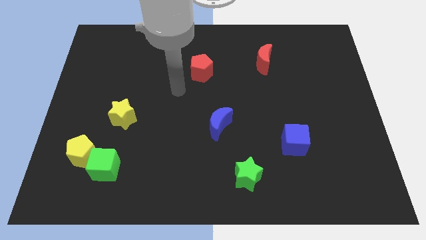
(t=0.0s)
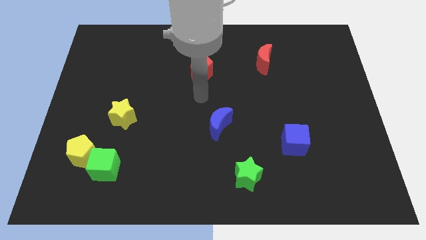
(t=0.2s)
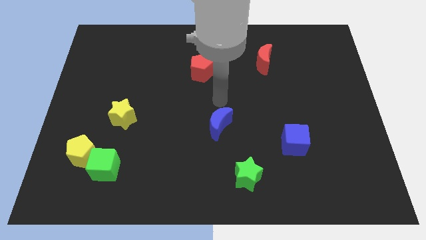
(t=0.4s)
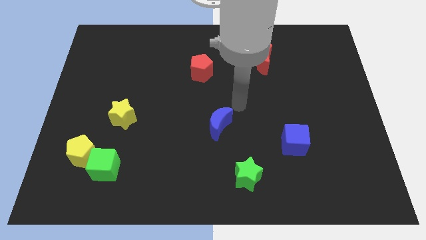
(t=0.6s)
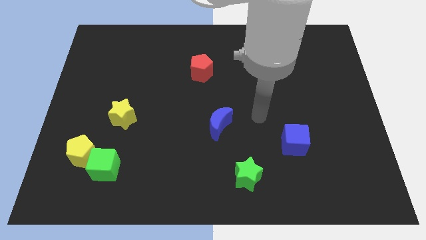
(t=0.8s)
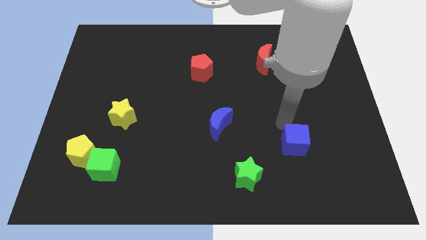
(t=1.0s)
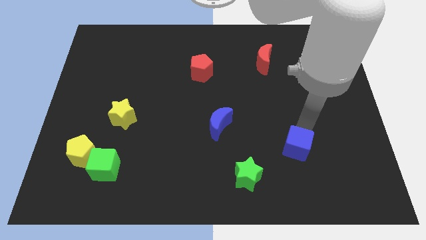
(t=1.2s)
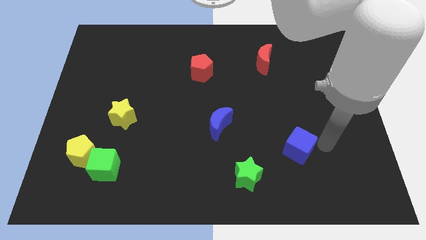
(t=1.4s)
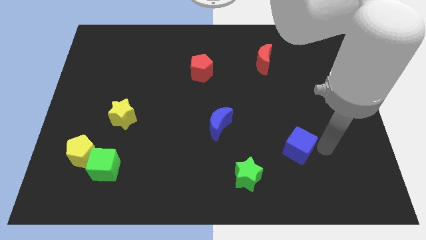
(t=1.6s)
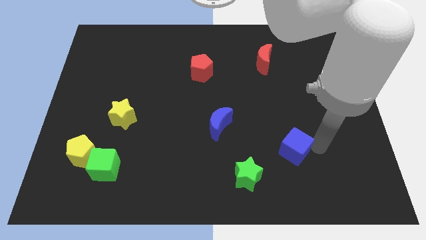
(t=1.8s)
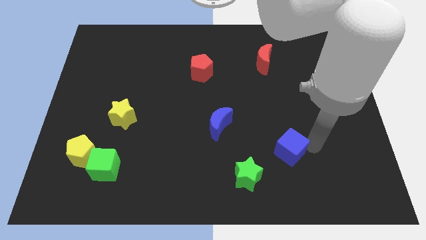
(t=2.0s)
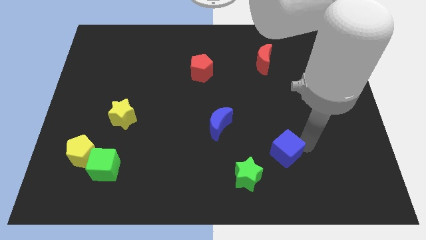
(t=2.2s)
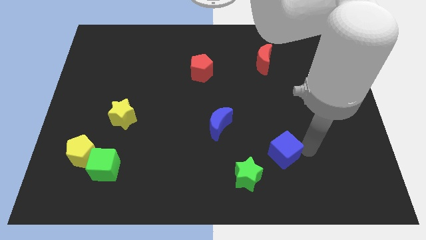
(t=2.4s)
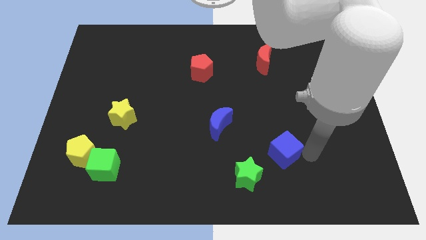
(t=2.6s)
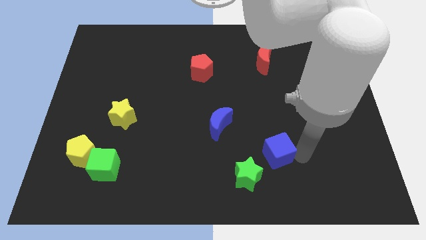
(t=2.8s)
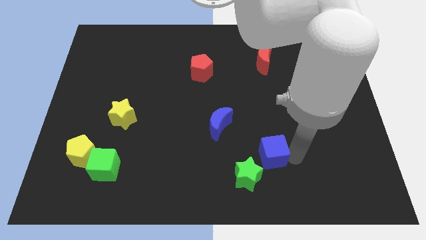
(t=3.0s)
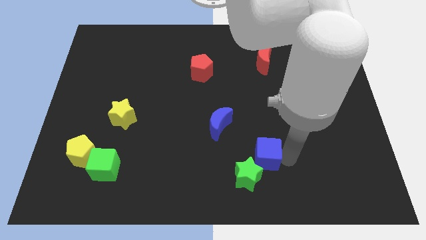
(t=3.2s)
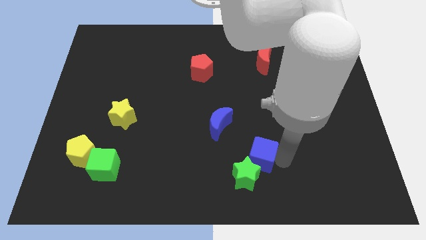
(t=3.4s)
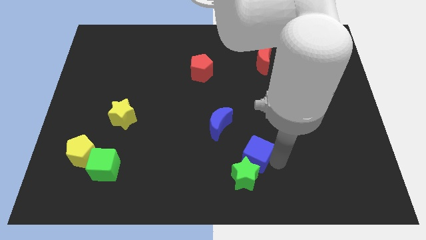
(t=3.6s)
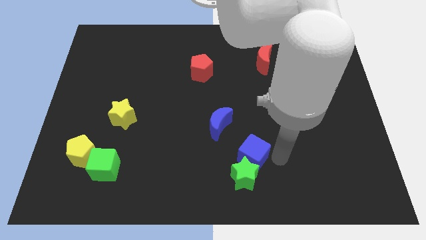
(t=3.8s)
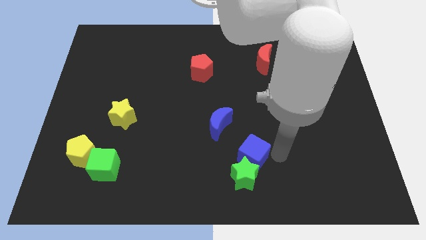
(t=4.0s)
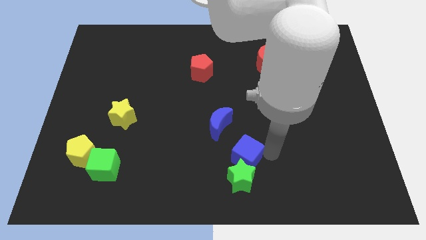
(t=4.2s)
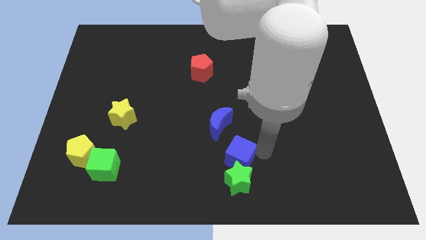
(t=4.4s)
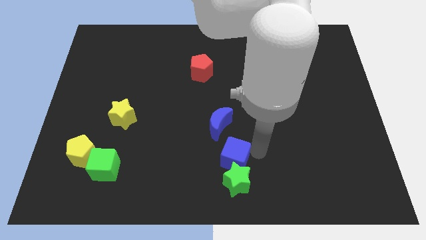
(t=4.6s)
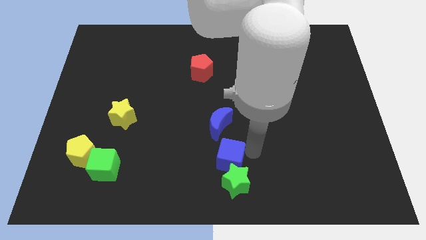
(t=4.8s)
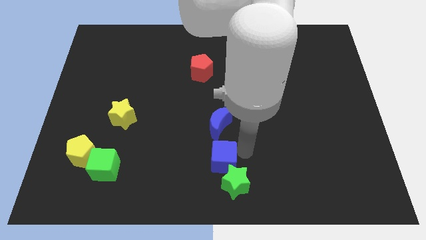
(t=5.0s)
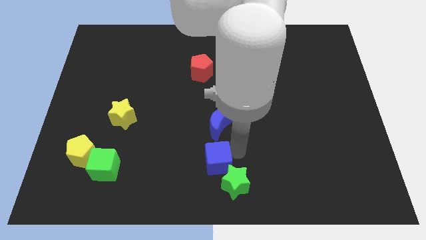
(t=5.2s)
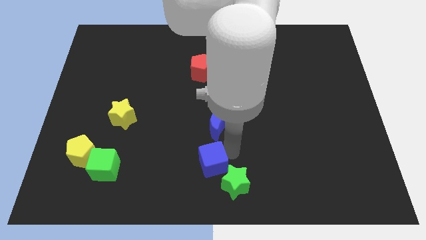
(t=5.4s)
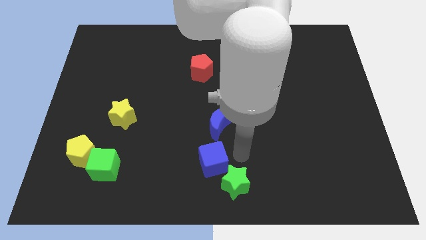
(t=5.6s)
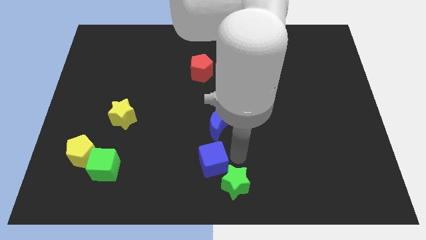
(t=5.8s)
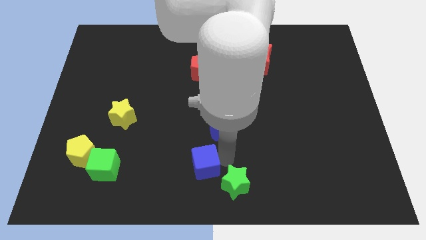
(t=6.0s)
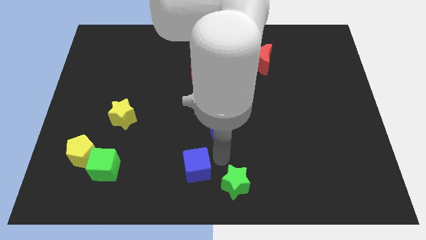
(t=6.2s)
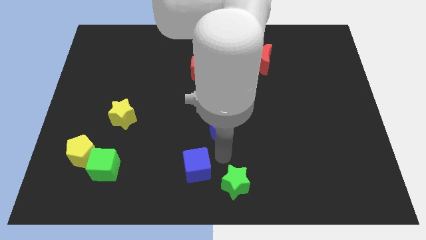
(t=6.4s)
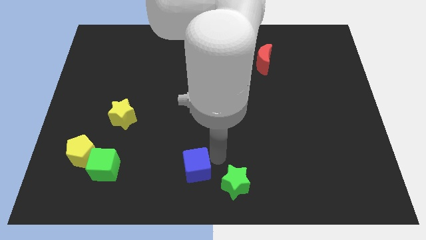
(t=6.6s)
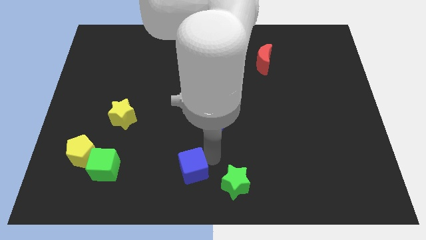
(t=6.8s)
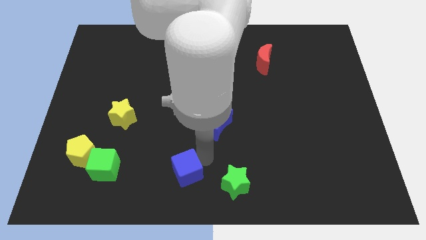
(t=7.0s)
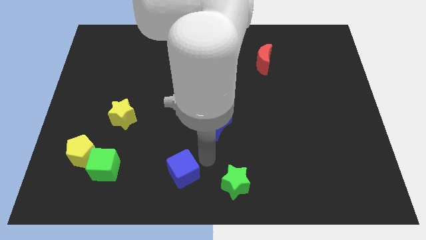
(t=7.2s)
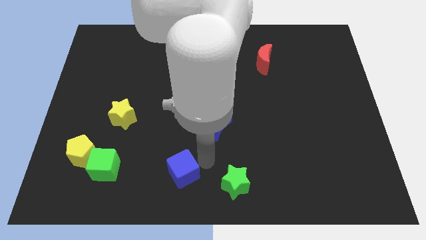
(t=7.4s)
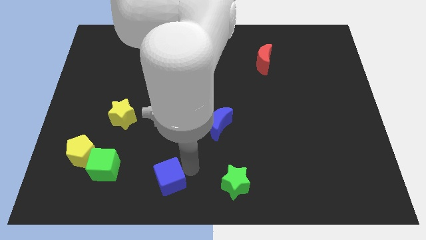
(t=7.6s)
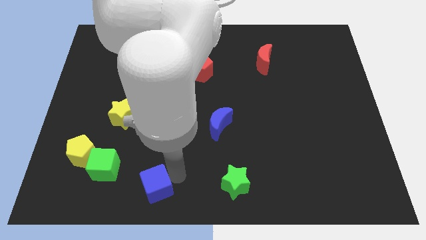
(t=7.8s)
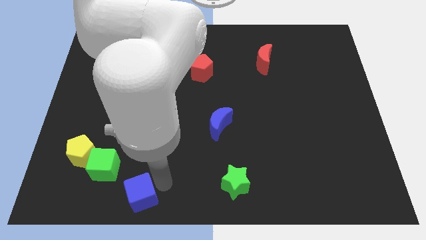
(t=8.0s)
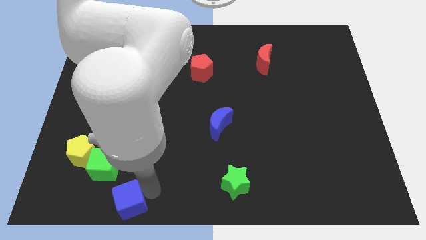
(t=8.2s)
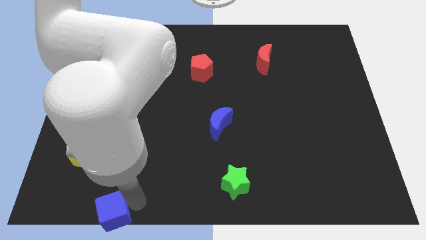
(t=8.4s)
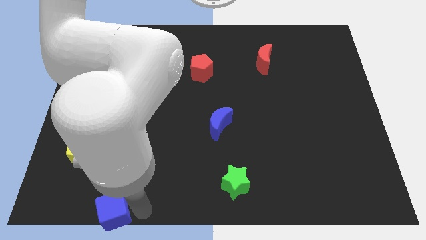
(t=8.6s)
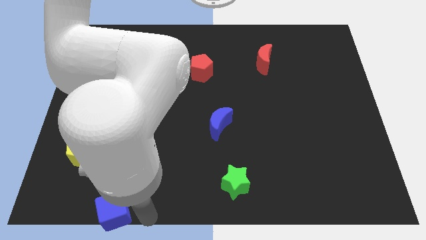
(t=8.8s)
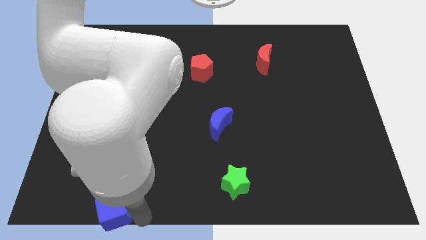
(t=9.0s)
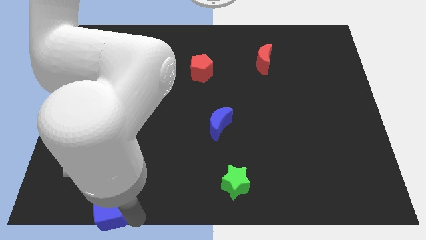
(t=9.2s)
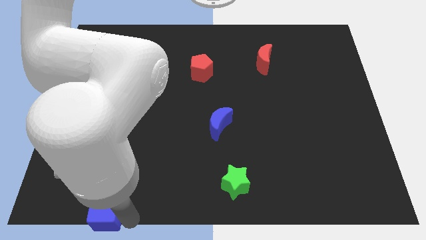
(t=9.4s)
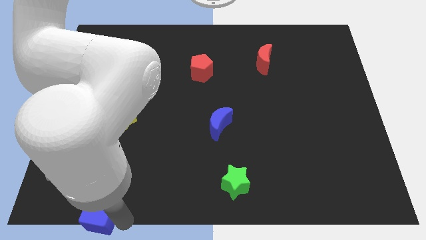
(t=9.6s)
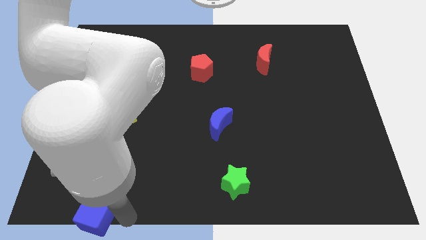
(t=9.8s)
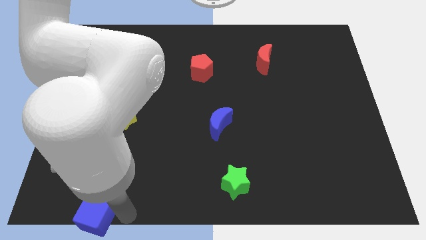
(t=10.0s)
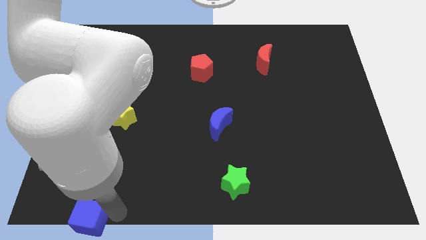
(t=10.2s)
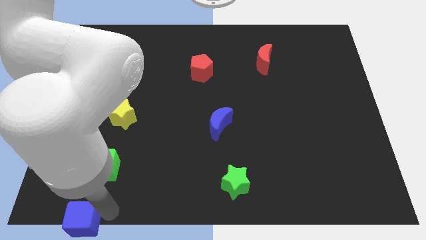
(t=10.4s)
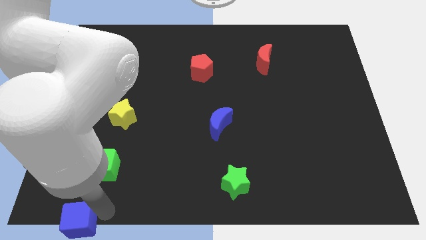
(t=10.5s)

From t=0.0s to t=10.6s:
move the blue cube to the bottom left

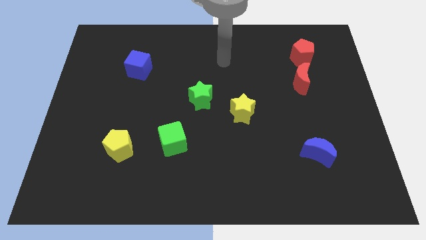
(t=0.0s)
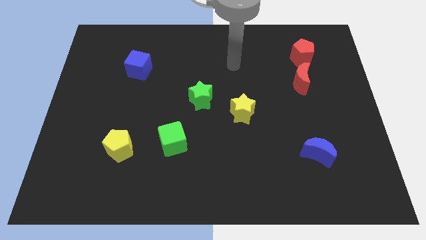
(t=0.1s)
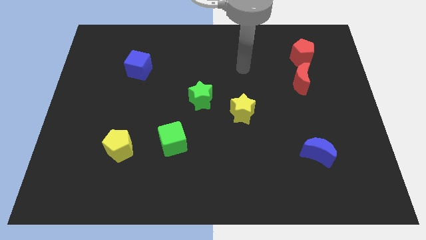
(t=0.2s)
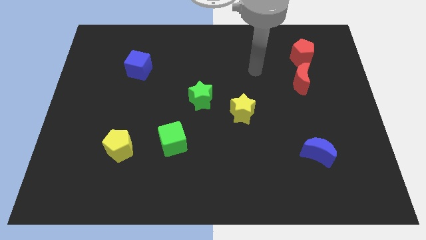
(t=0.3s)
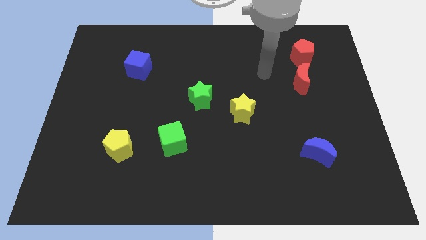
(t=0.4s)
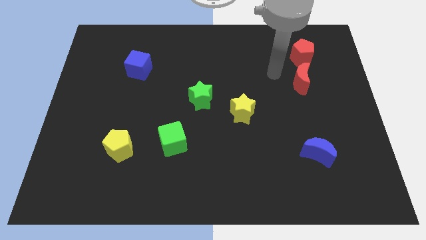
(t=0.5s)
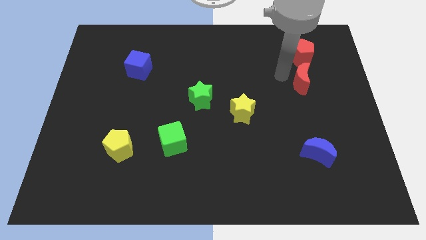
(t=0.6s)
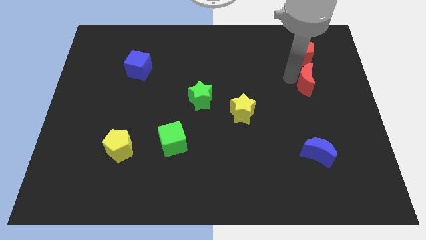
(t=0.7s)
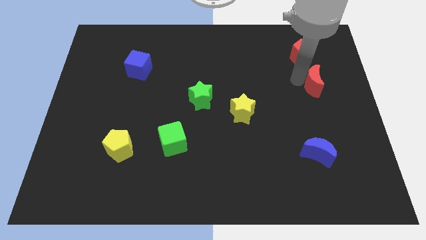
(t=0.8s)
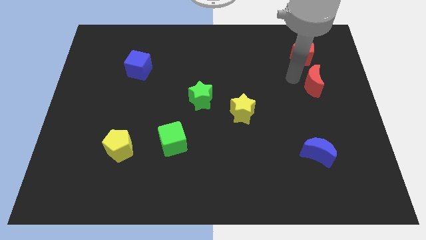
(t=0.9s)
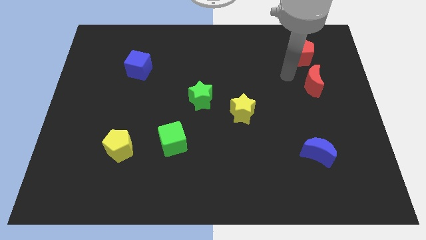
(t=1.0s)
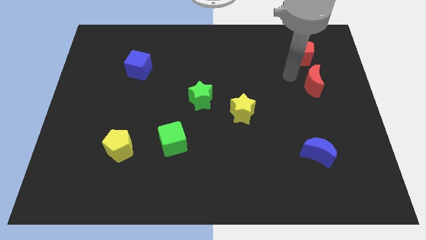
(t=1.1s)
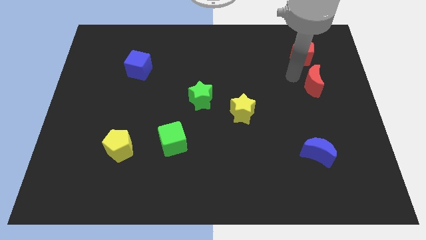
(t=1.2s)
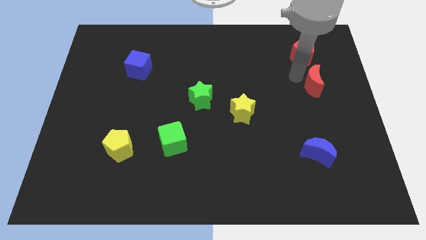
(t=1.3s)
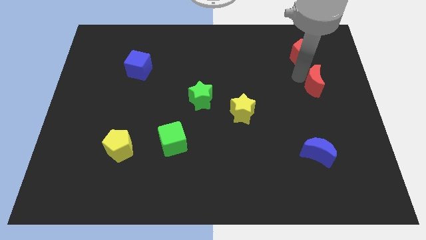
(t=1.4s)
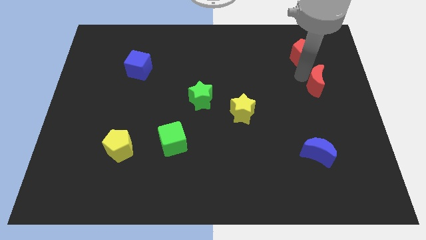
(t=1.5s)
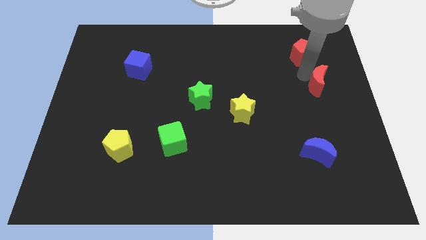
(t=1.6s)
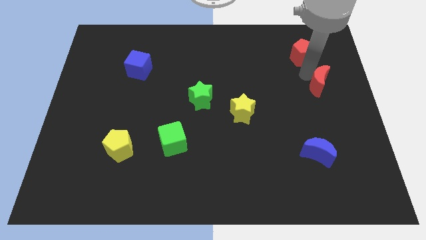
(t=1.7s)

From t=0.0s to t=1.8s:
push the red moon to the center right
